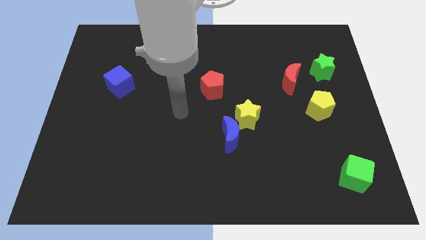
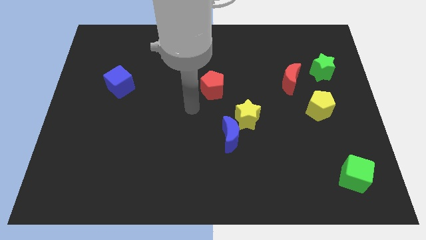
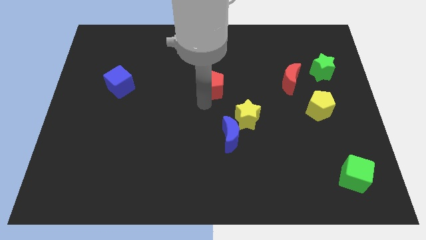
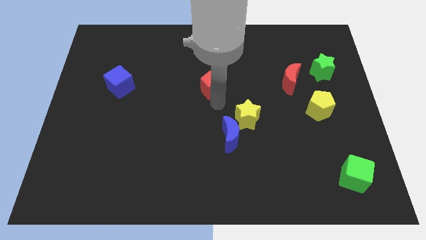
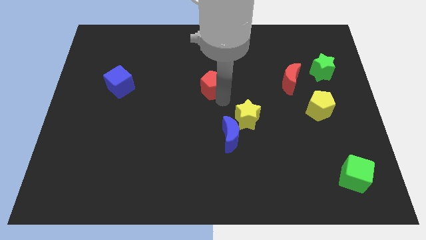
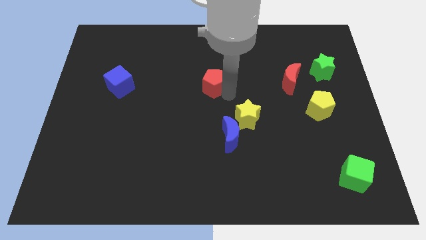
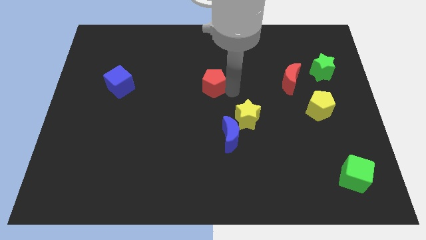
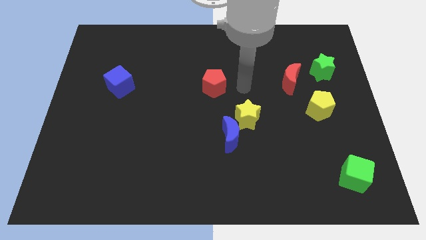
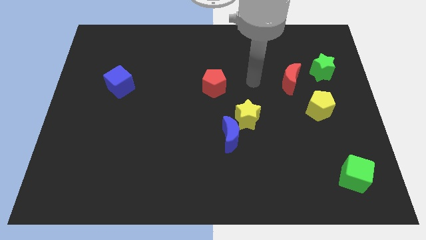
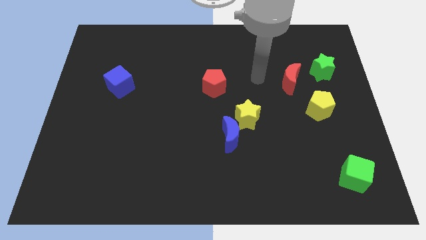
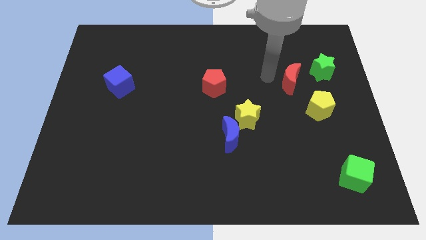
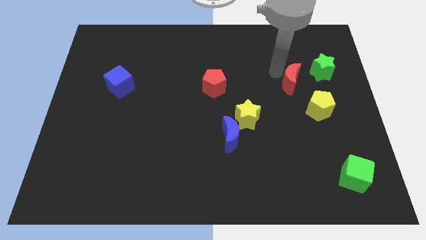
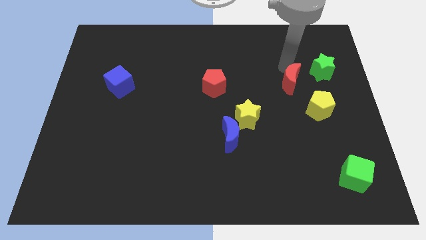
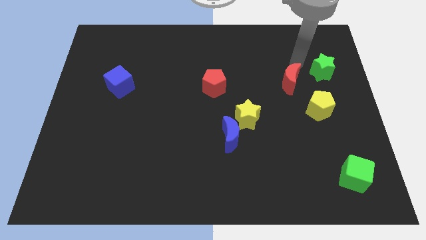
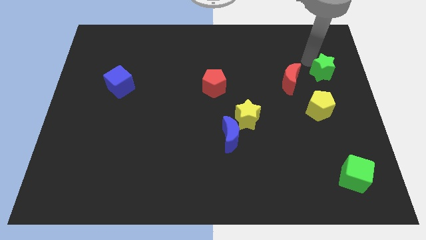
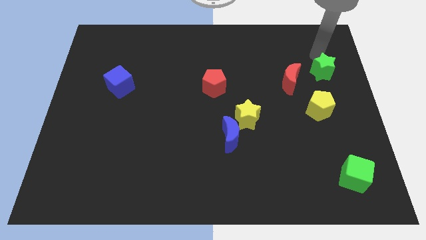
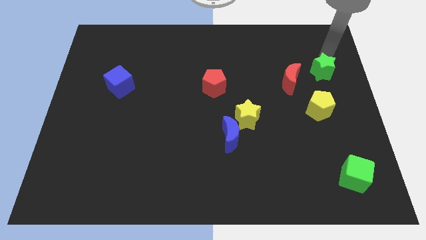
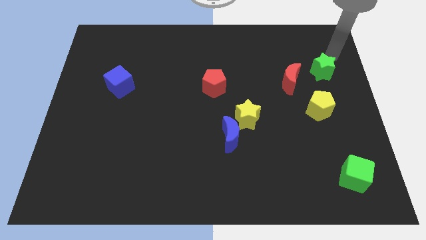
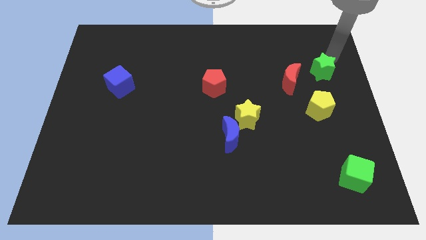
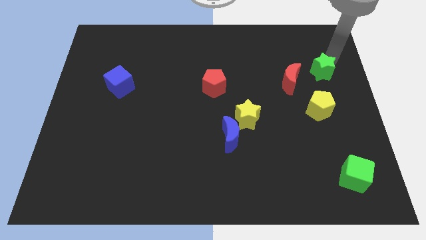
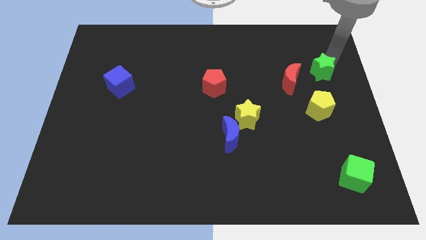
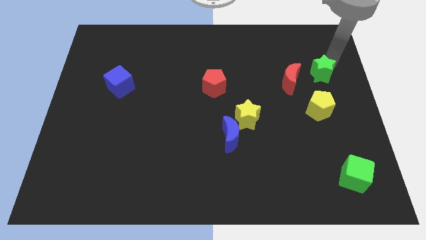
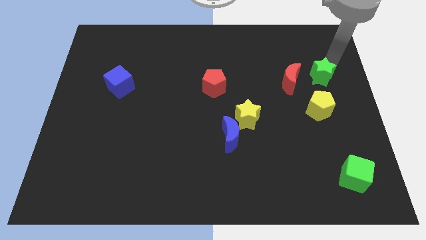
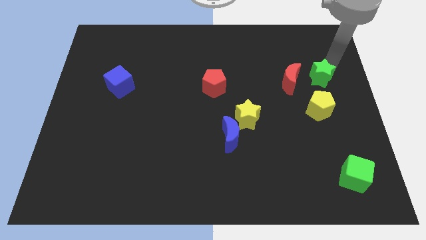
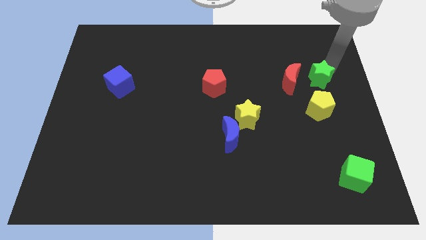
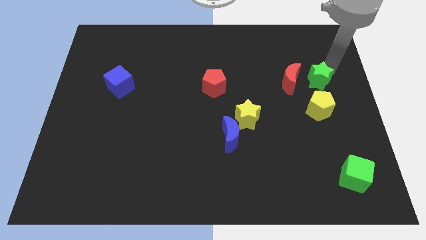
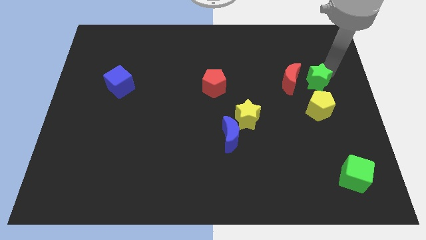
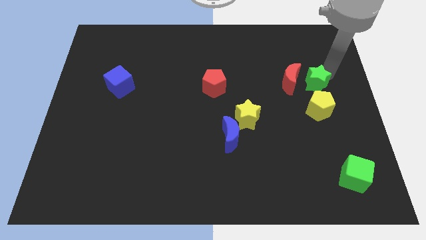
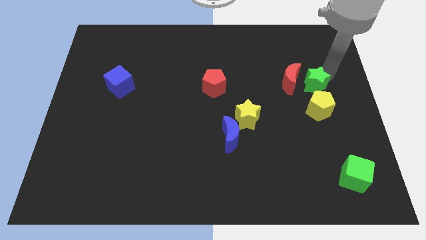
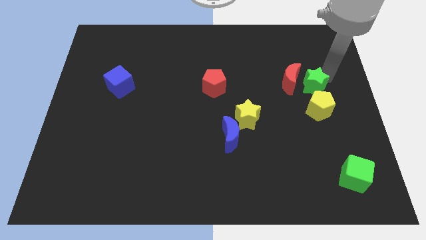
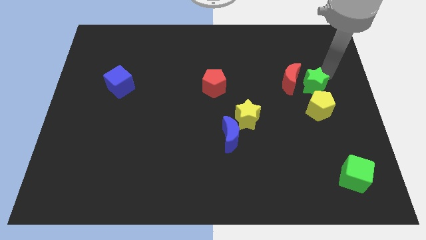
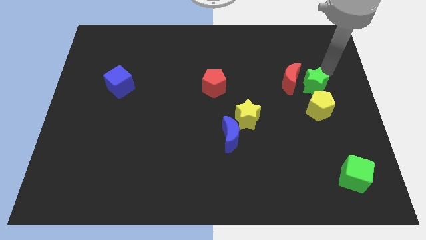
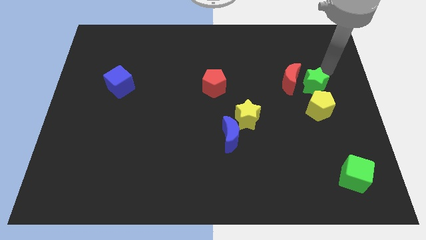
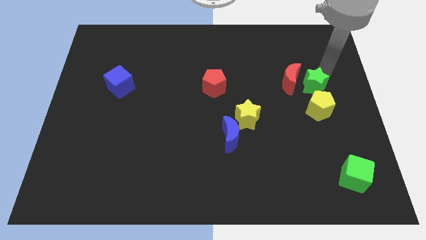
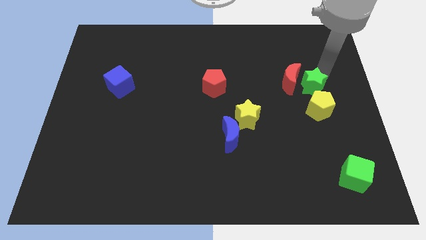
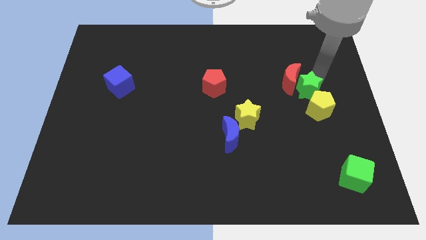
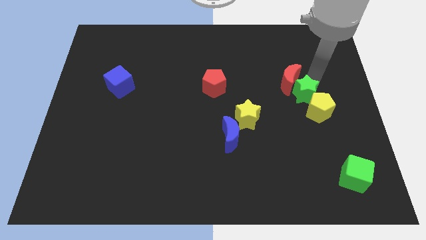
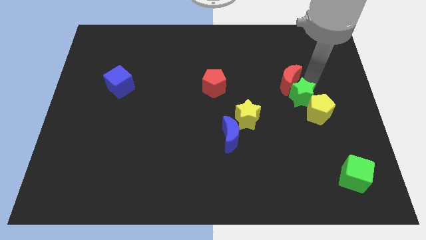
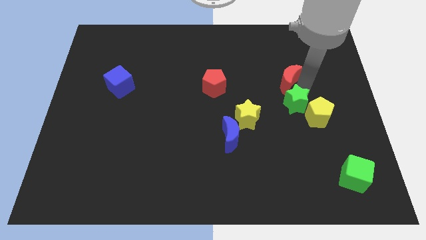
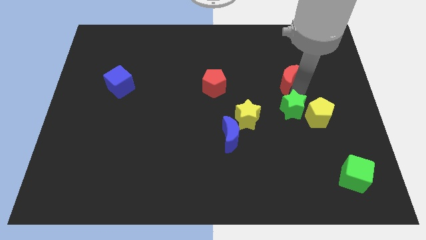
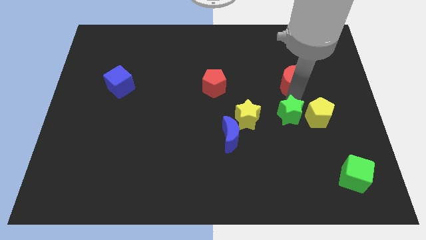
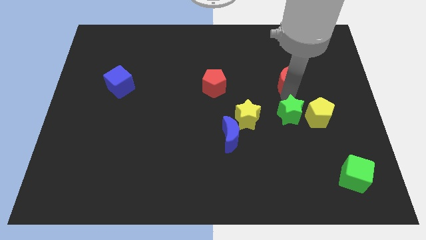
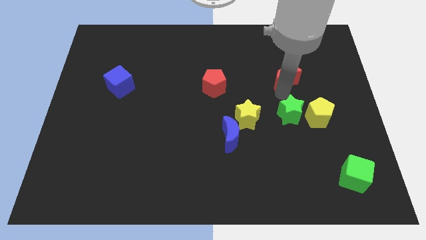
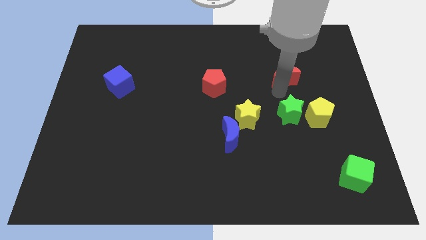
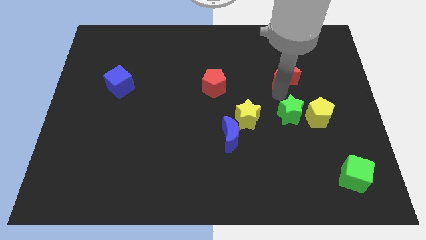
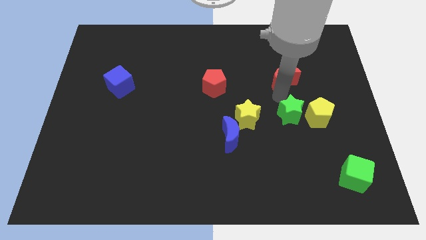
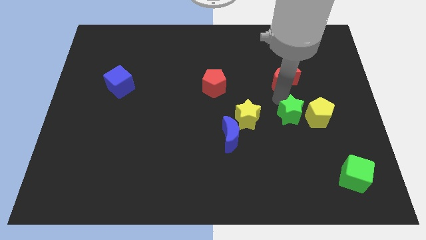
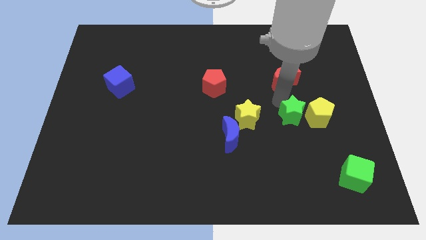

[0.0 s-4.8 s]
slide the green star to the bottom left of the yellow pentagon

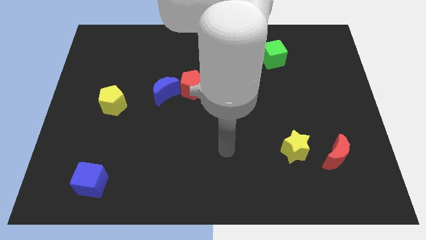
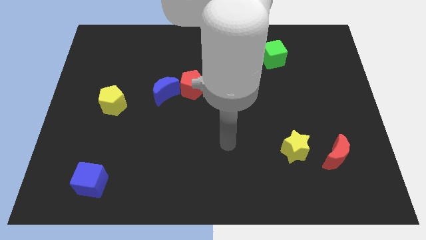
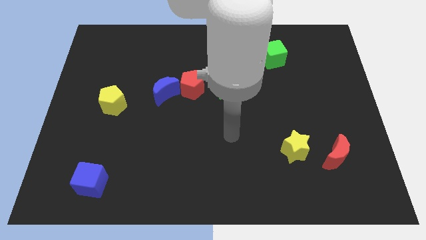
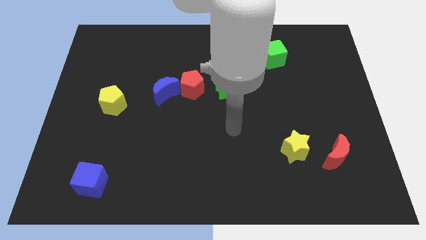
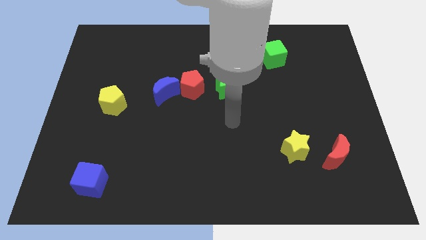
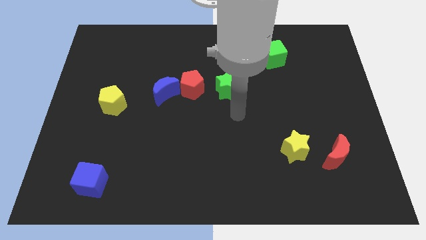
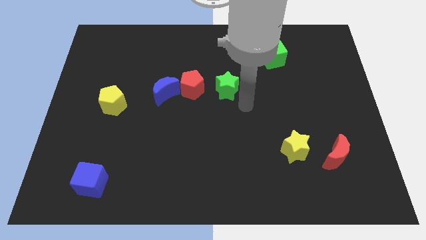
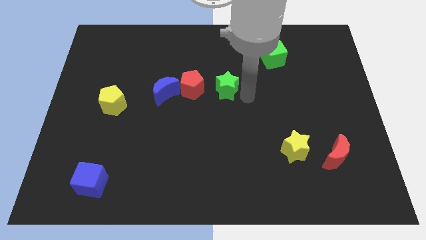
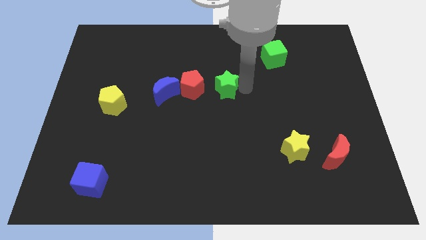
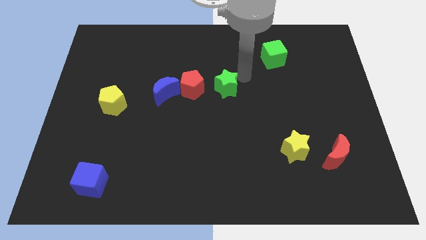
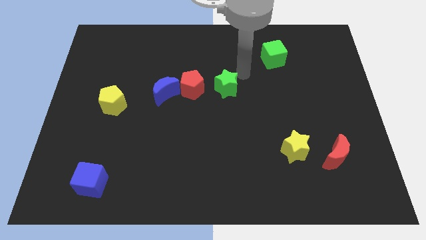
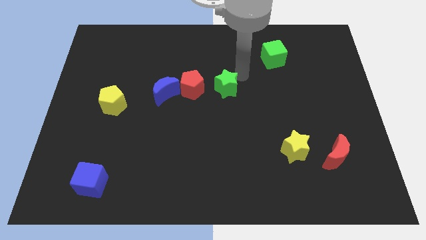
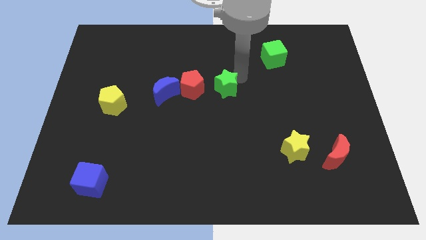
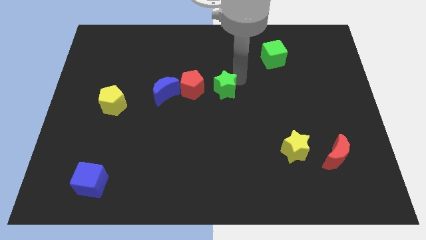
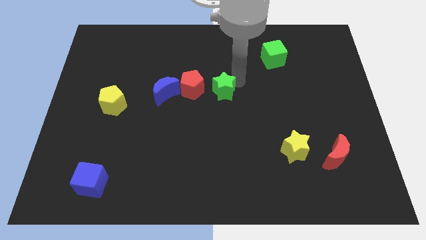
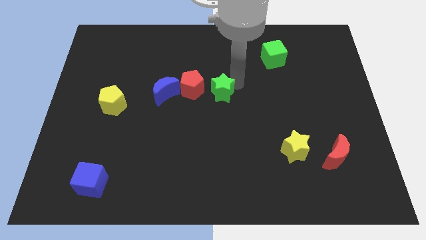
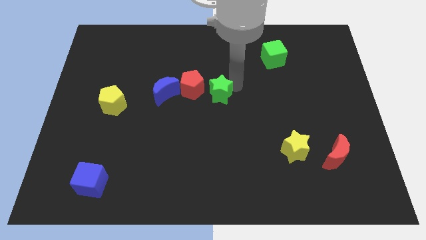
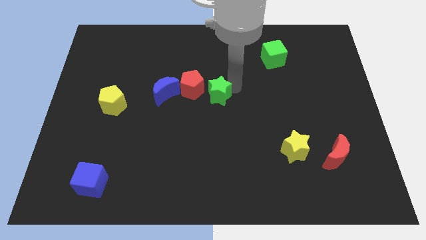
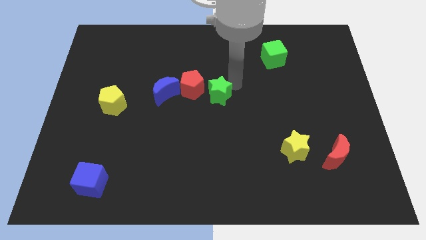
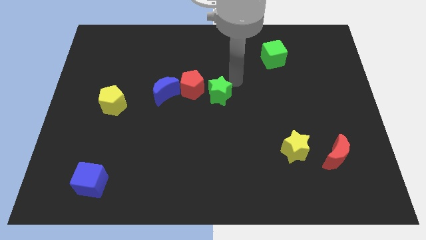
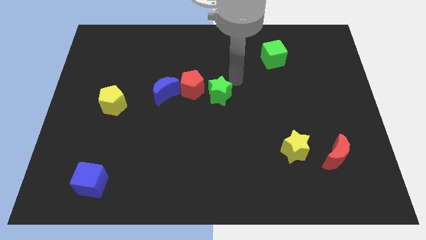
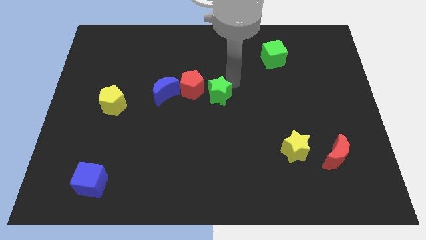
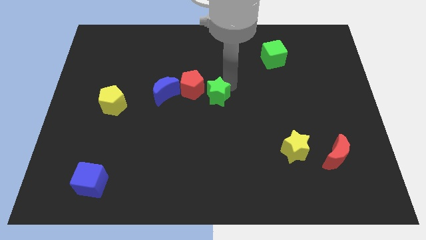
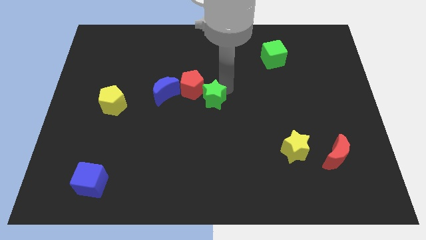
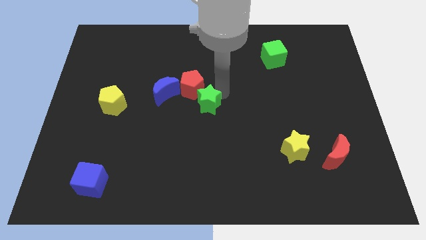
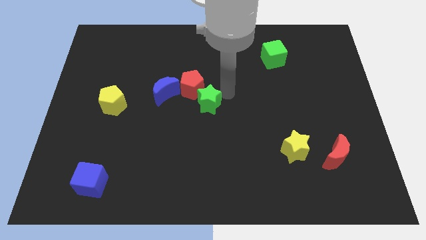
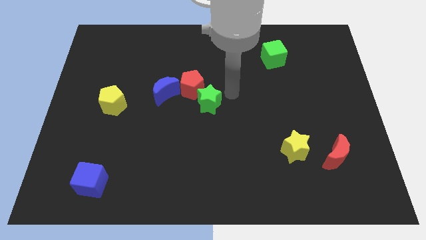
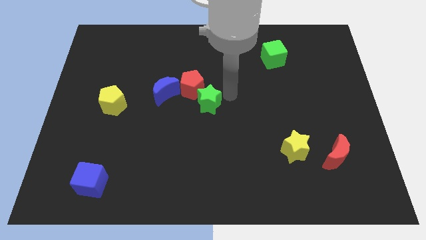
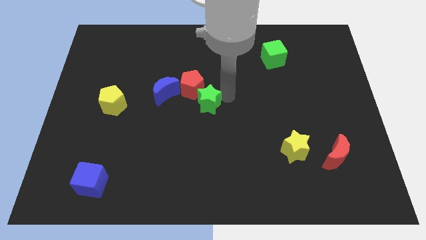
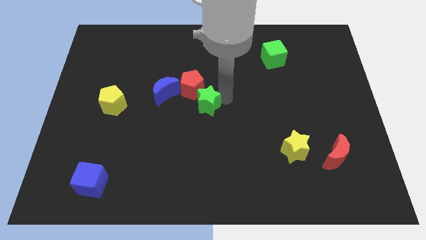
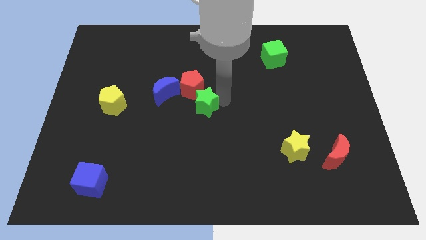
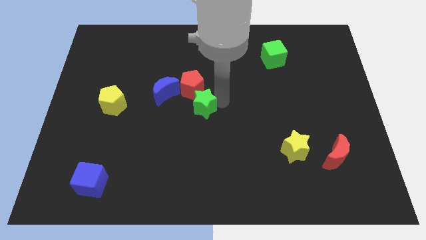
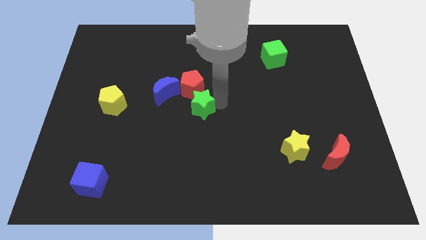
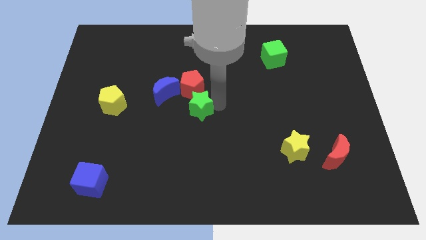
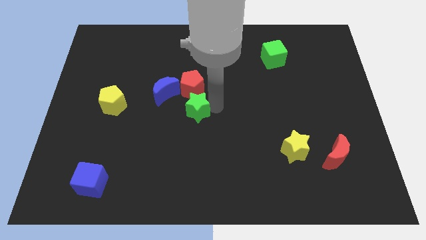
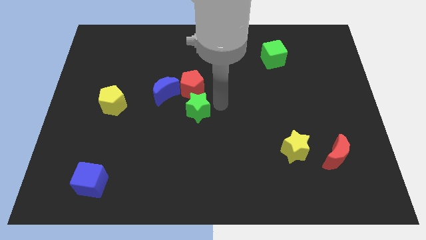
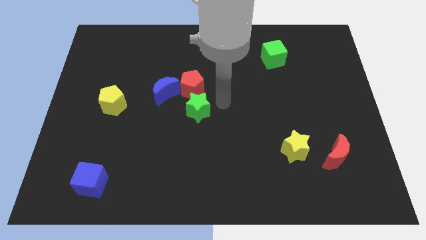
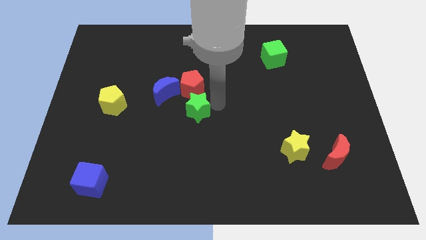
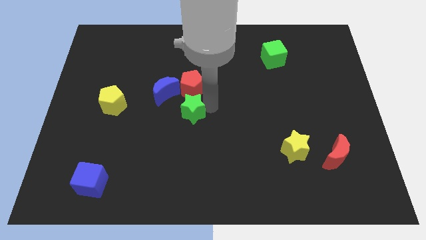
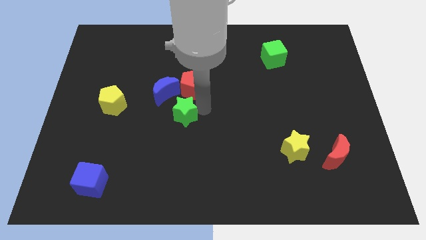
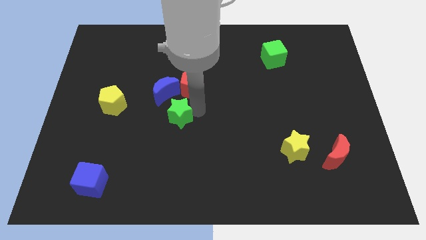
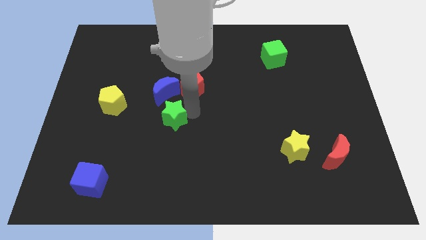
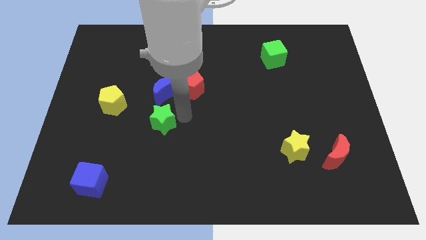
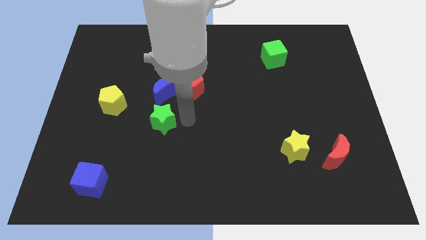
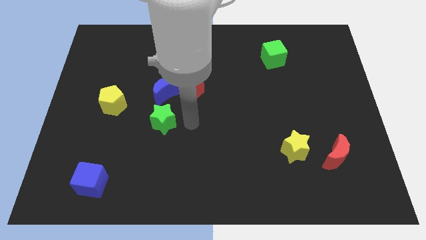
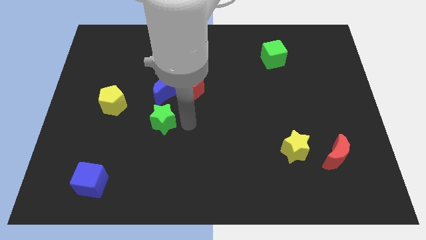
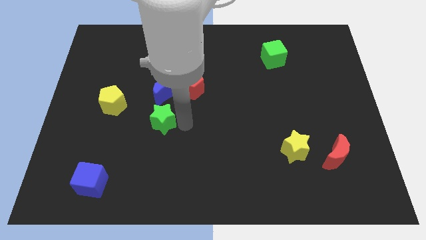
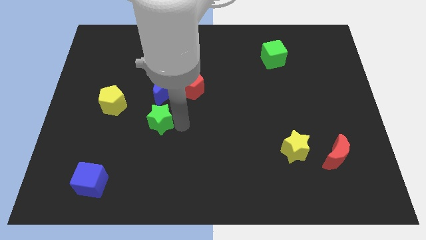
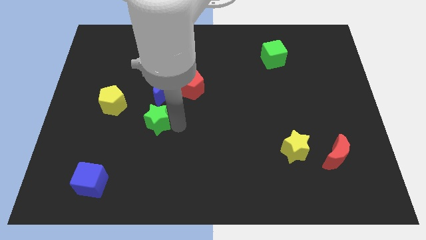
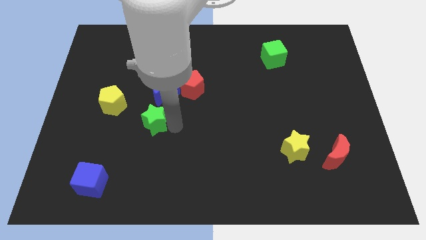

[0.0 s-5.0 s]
put the green star diagonally down and to the right of the yellow pentagon
